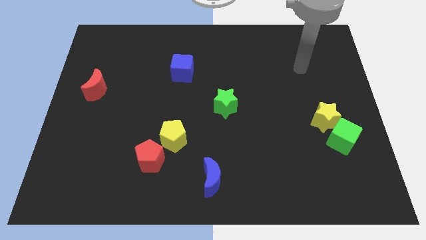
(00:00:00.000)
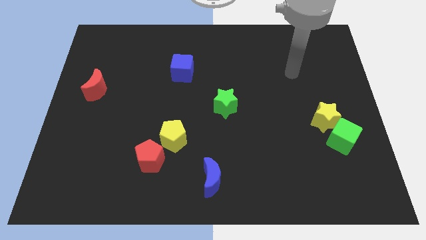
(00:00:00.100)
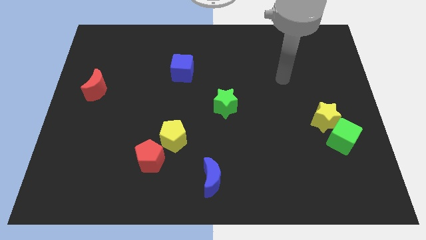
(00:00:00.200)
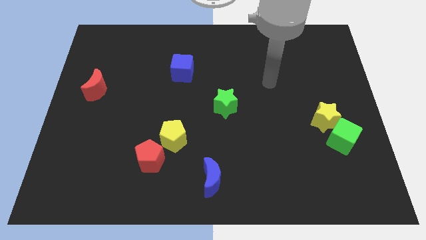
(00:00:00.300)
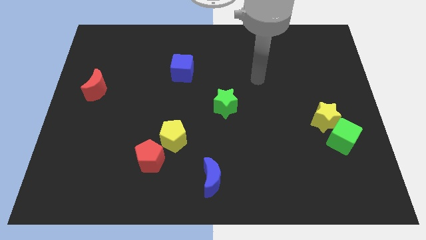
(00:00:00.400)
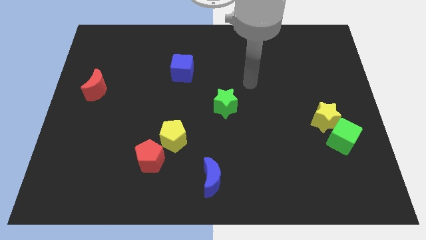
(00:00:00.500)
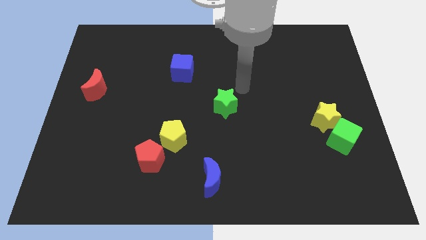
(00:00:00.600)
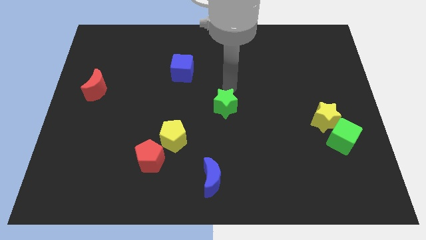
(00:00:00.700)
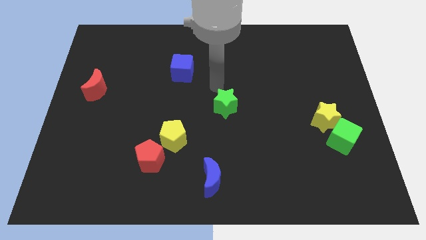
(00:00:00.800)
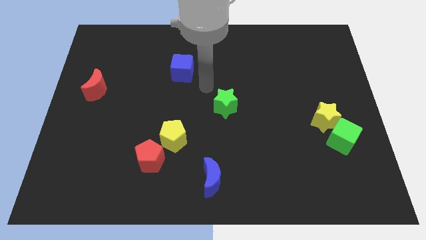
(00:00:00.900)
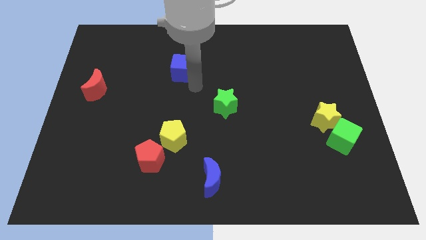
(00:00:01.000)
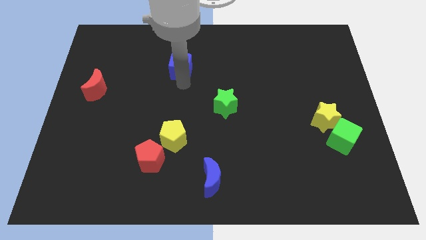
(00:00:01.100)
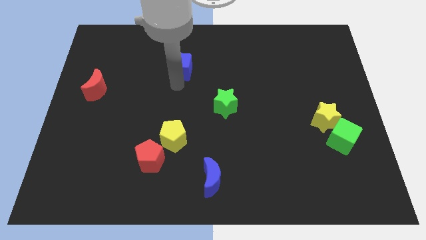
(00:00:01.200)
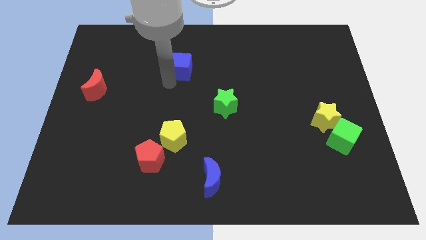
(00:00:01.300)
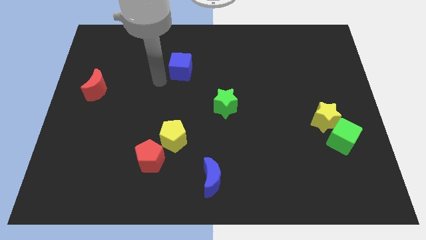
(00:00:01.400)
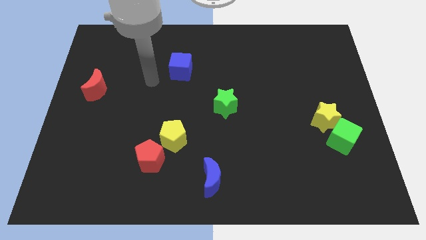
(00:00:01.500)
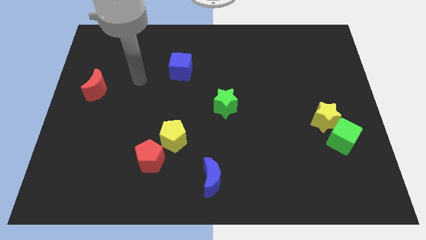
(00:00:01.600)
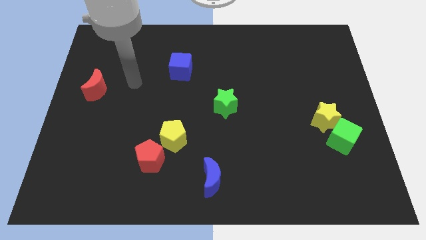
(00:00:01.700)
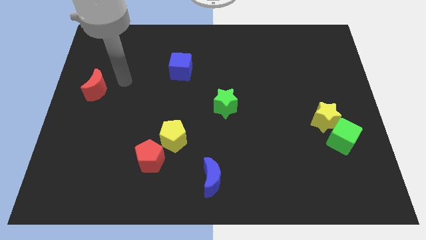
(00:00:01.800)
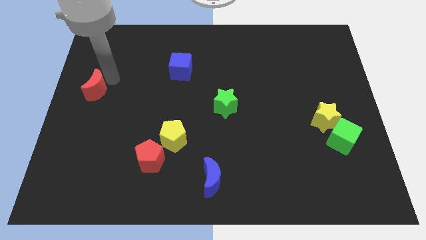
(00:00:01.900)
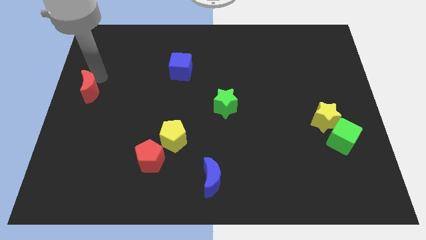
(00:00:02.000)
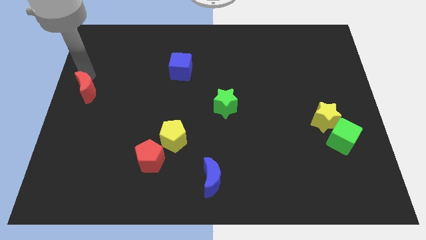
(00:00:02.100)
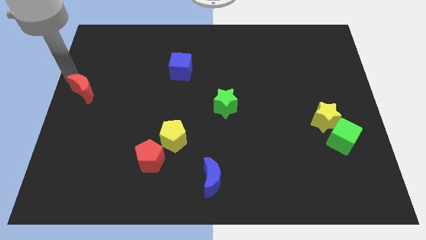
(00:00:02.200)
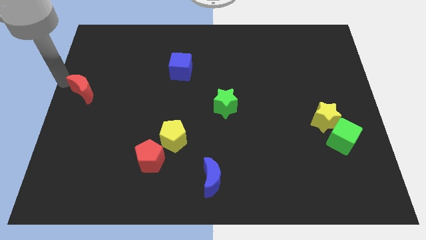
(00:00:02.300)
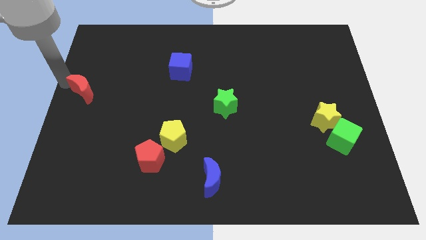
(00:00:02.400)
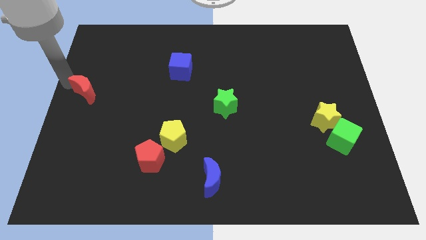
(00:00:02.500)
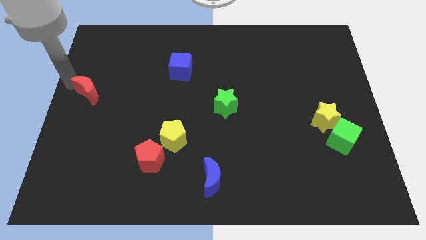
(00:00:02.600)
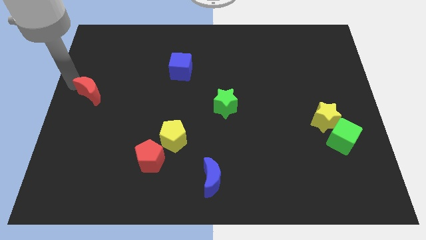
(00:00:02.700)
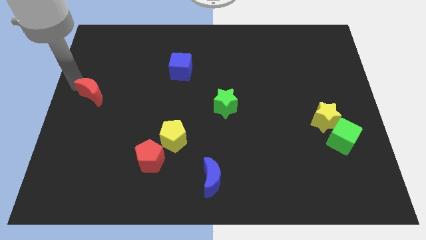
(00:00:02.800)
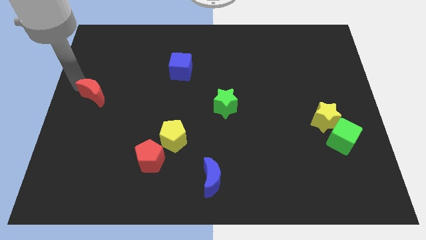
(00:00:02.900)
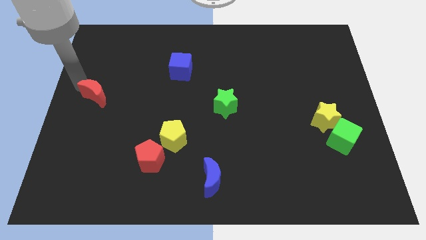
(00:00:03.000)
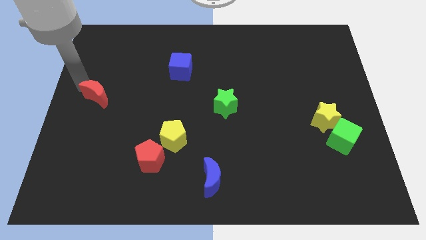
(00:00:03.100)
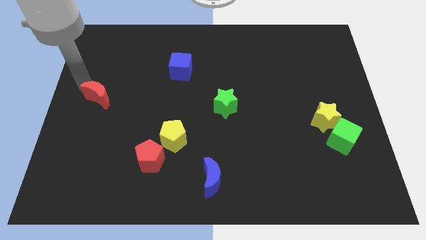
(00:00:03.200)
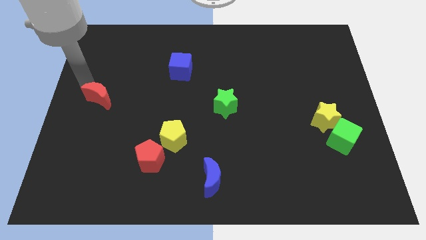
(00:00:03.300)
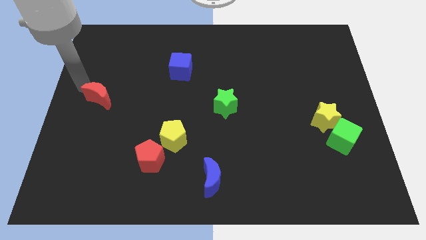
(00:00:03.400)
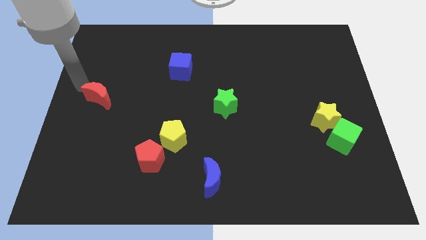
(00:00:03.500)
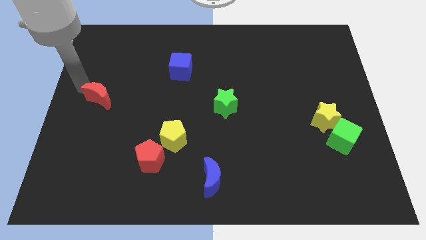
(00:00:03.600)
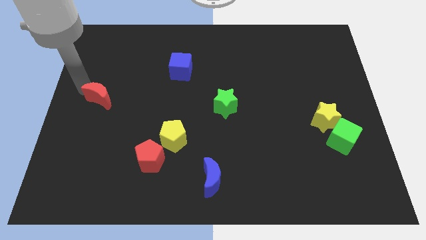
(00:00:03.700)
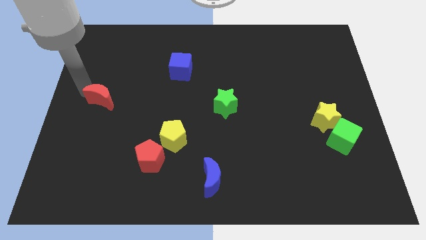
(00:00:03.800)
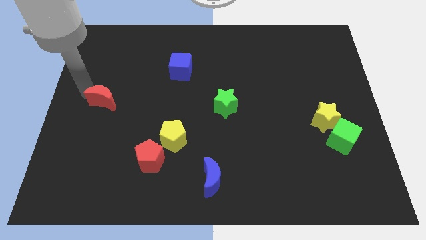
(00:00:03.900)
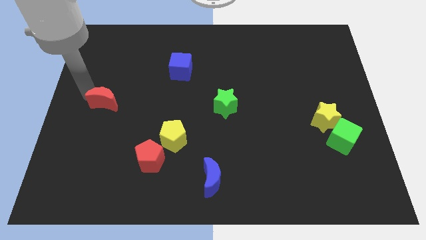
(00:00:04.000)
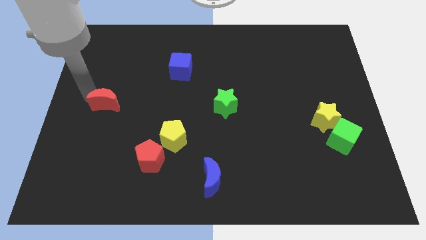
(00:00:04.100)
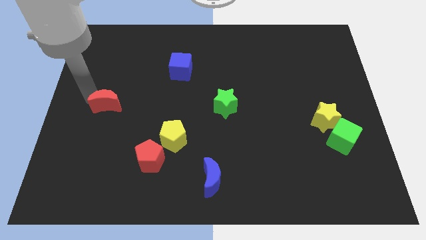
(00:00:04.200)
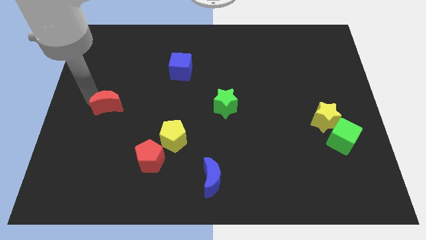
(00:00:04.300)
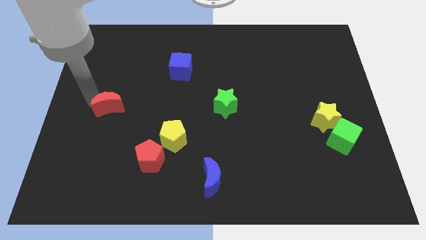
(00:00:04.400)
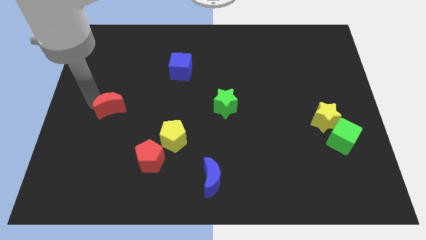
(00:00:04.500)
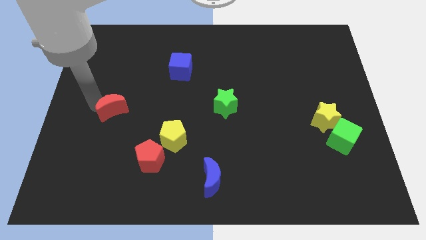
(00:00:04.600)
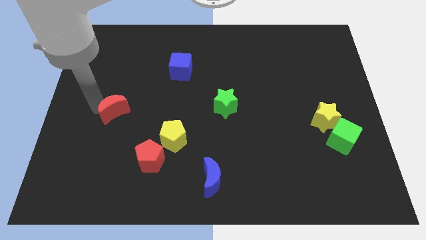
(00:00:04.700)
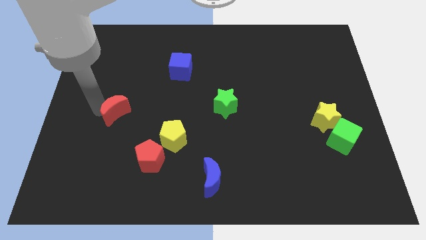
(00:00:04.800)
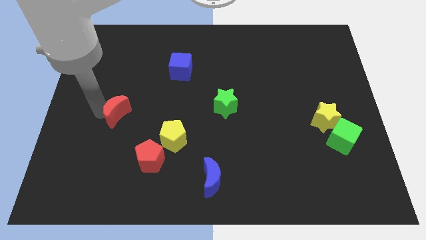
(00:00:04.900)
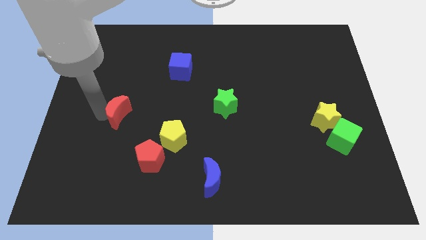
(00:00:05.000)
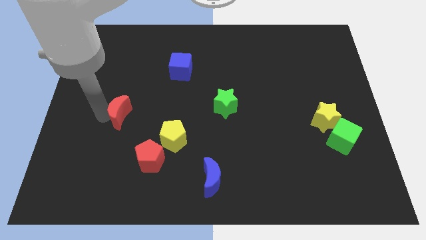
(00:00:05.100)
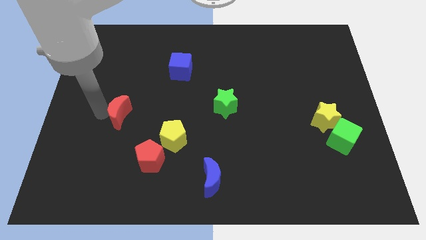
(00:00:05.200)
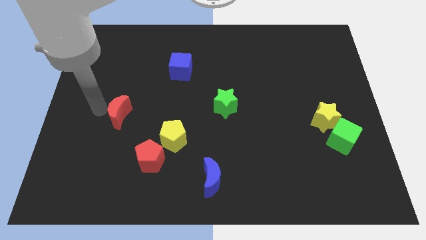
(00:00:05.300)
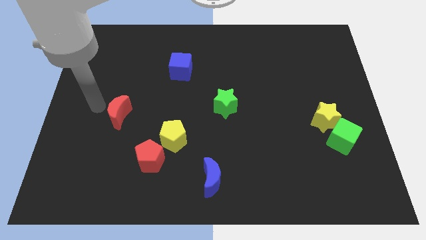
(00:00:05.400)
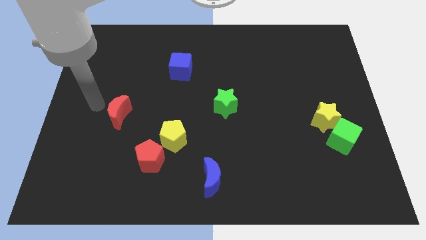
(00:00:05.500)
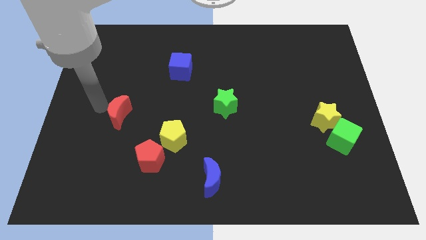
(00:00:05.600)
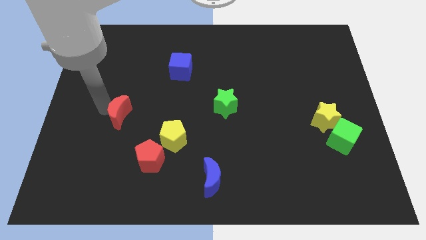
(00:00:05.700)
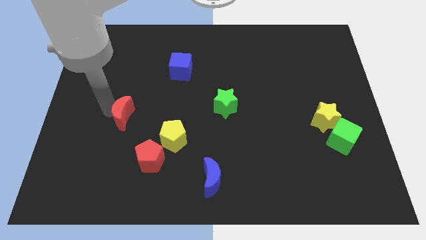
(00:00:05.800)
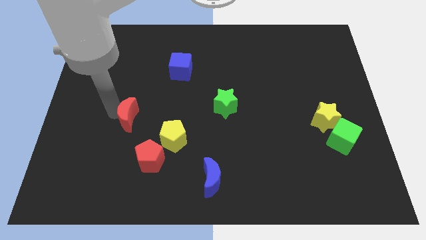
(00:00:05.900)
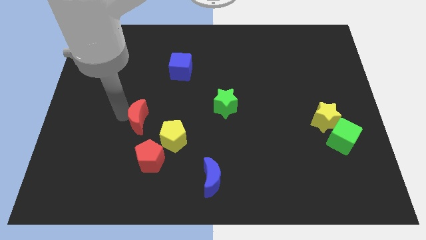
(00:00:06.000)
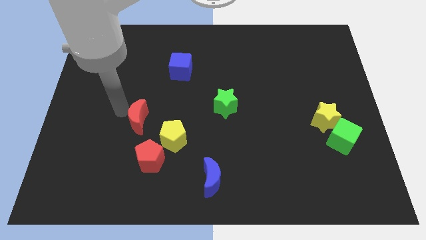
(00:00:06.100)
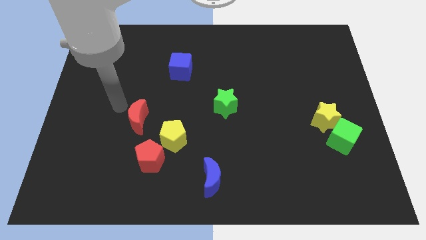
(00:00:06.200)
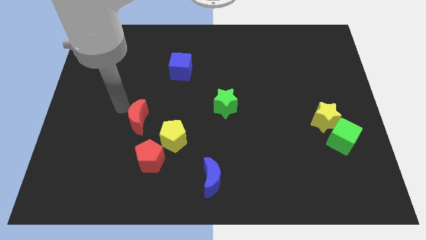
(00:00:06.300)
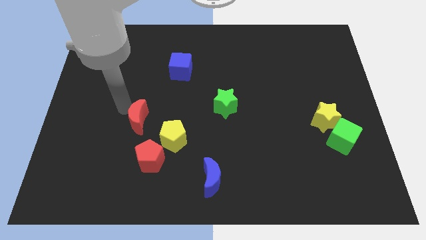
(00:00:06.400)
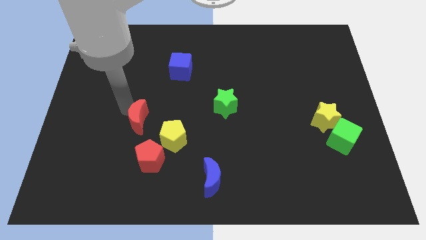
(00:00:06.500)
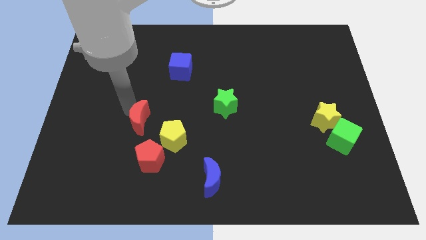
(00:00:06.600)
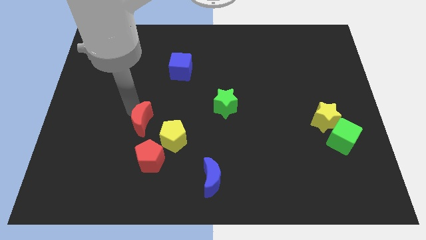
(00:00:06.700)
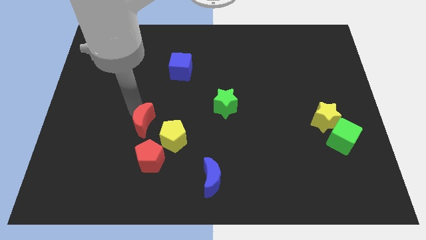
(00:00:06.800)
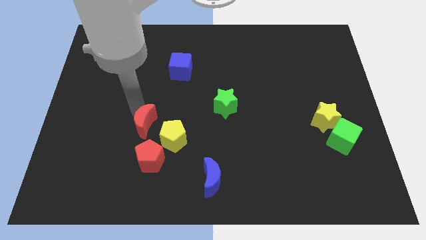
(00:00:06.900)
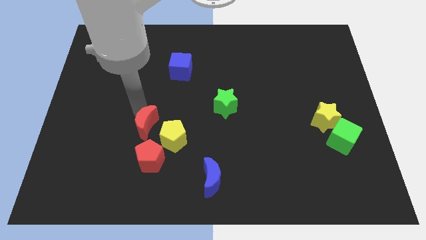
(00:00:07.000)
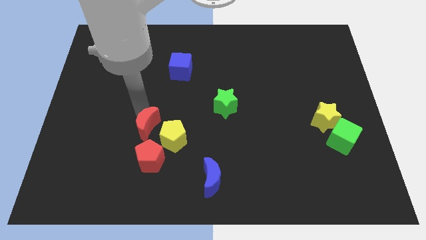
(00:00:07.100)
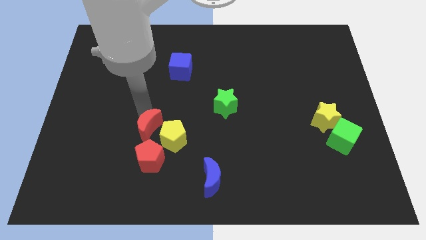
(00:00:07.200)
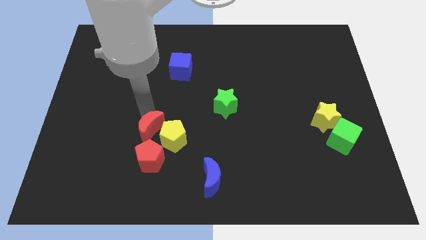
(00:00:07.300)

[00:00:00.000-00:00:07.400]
slide the red moon close to the yellow pentagon

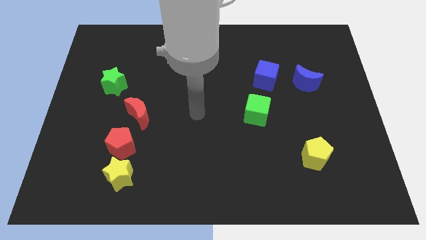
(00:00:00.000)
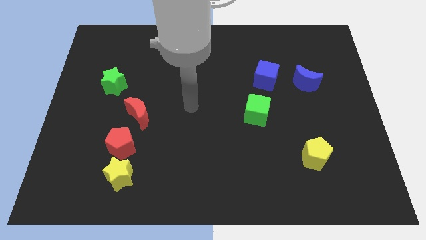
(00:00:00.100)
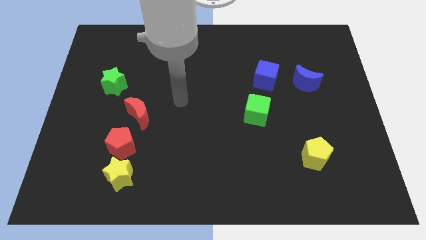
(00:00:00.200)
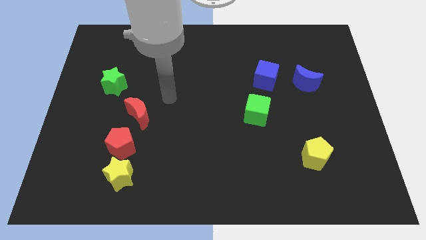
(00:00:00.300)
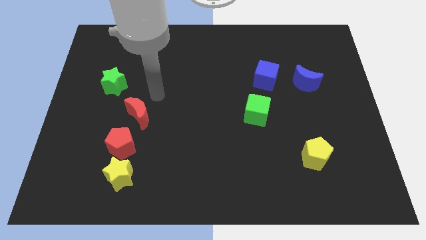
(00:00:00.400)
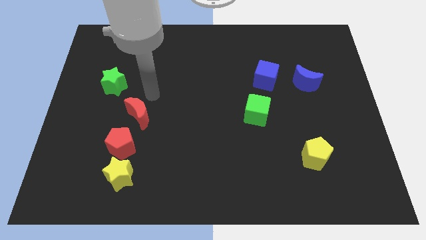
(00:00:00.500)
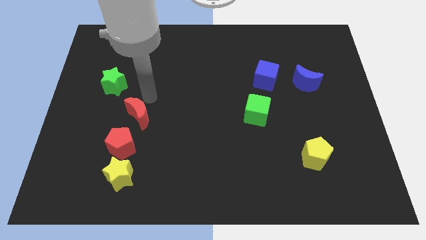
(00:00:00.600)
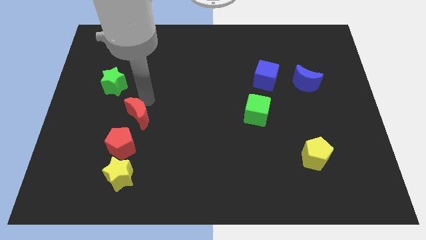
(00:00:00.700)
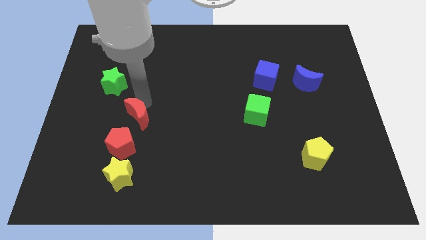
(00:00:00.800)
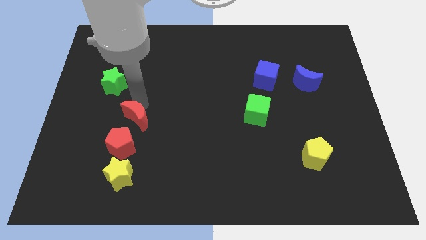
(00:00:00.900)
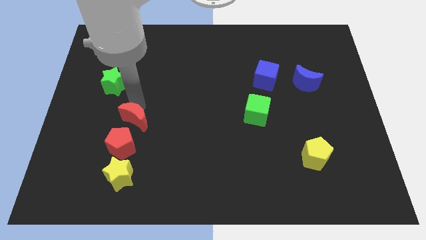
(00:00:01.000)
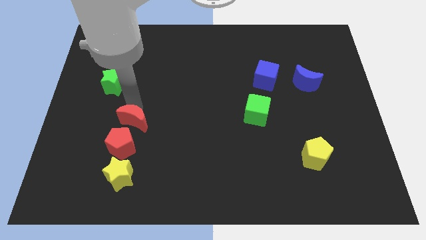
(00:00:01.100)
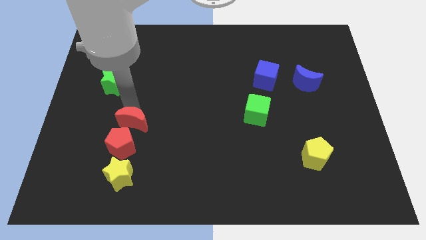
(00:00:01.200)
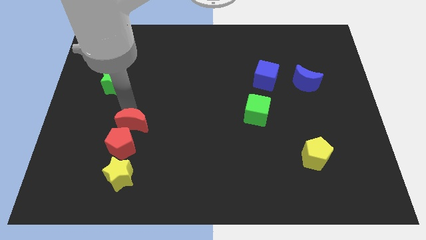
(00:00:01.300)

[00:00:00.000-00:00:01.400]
slide the red moon close to the red pentagon
